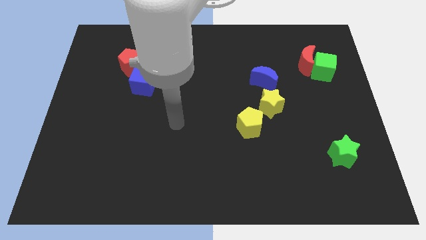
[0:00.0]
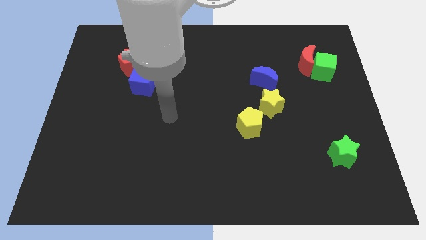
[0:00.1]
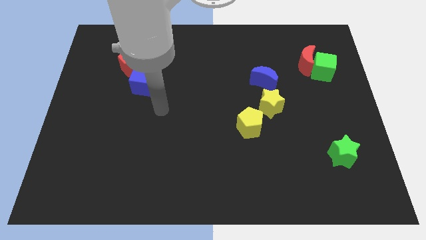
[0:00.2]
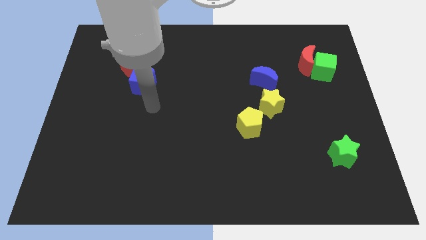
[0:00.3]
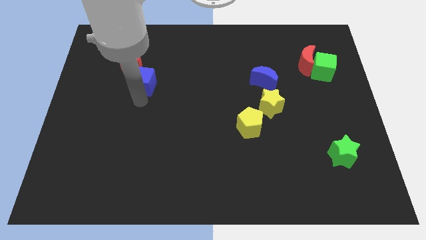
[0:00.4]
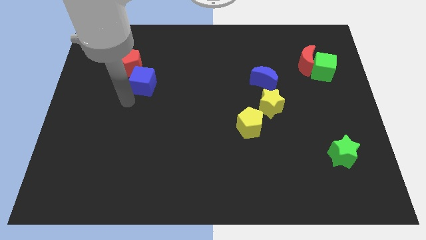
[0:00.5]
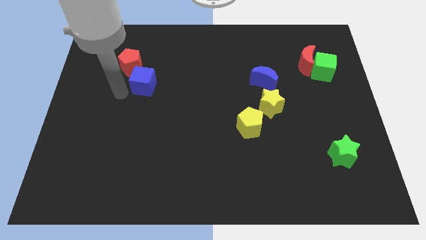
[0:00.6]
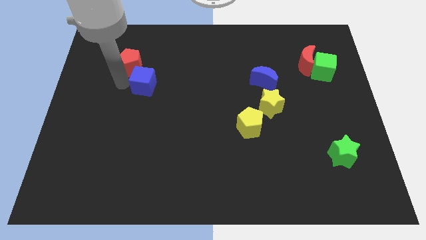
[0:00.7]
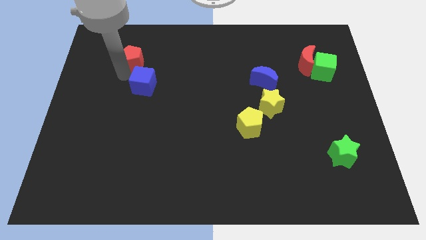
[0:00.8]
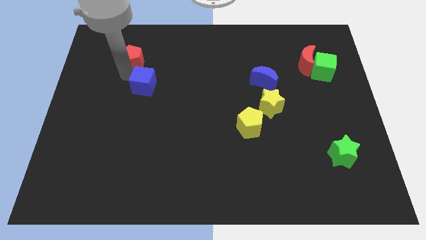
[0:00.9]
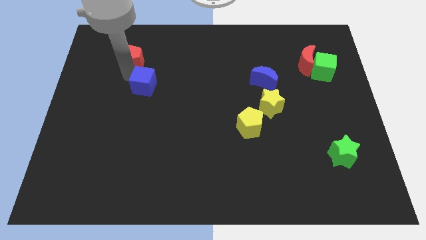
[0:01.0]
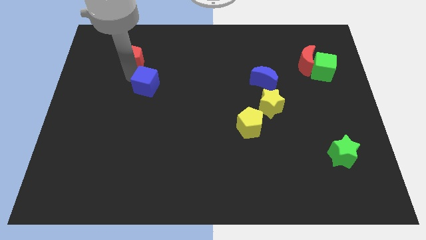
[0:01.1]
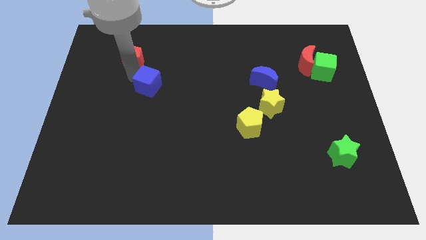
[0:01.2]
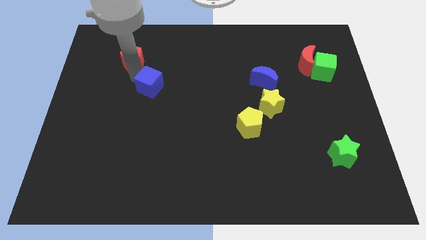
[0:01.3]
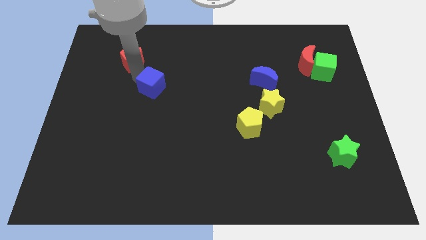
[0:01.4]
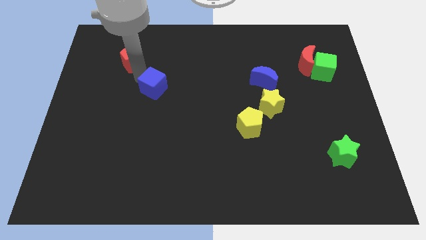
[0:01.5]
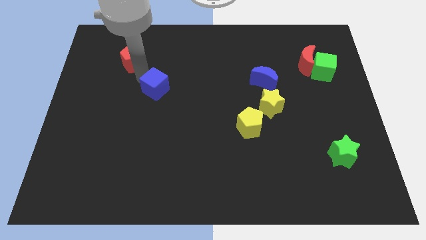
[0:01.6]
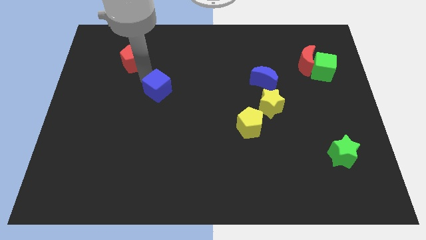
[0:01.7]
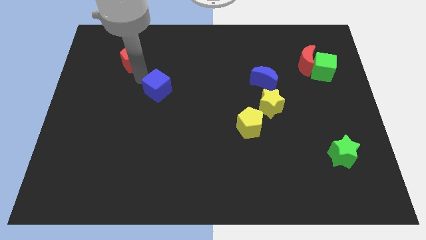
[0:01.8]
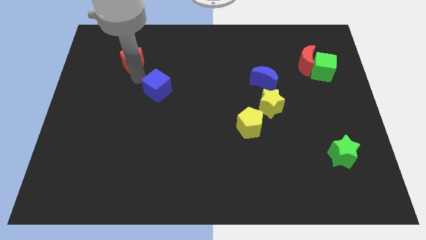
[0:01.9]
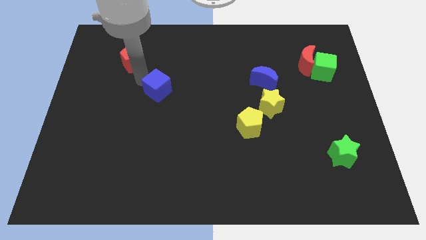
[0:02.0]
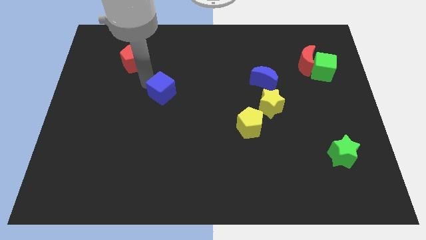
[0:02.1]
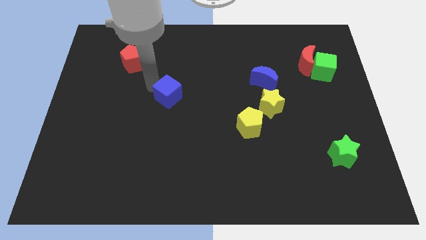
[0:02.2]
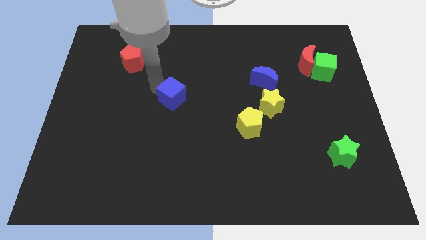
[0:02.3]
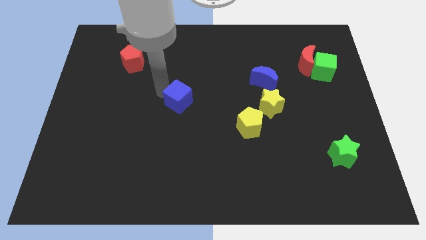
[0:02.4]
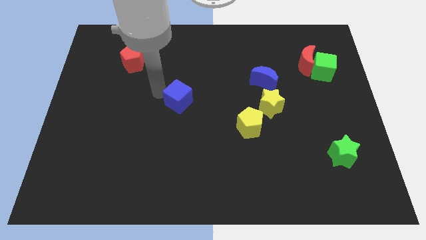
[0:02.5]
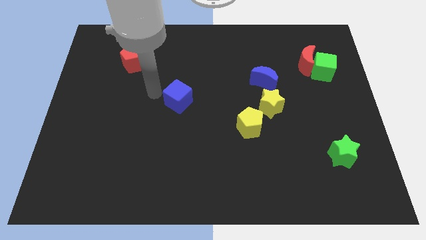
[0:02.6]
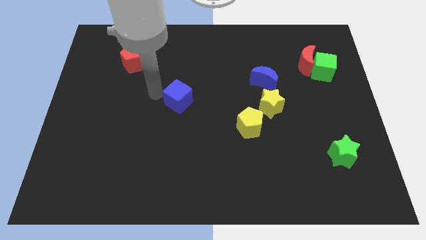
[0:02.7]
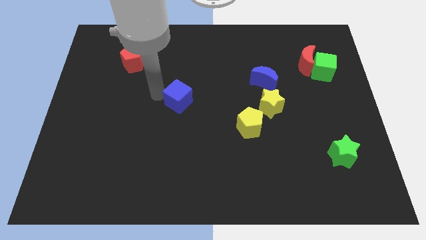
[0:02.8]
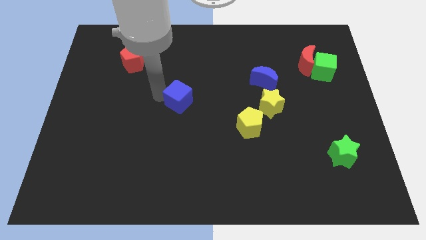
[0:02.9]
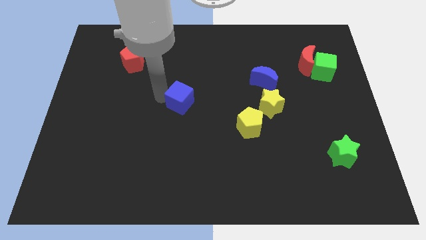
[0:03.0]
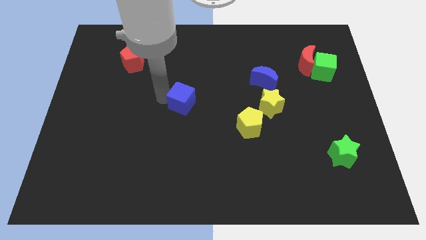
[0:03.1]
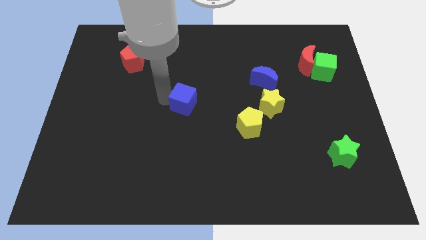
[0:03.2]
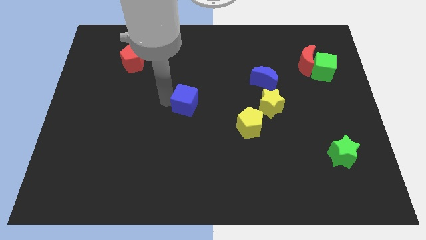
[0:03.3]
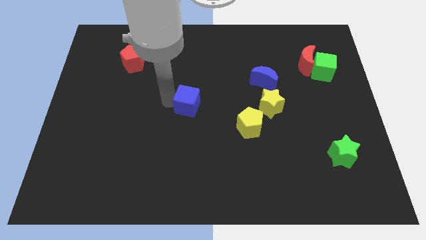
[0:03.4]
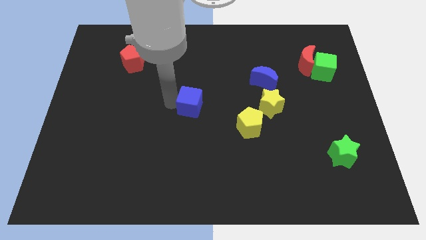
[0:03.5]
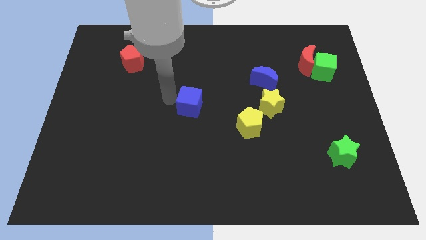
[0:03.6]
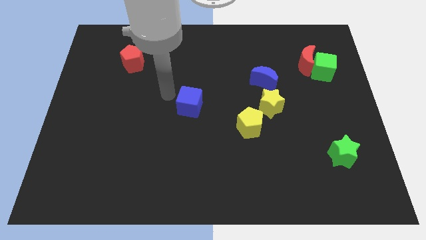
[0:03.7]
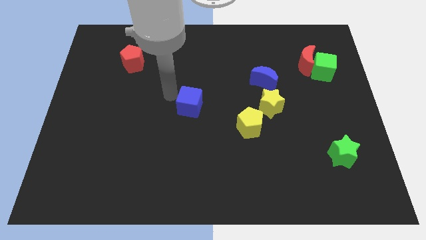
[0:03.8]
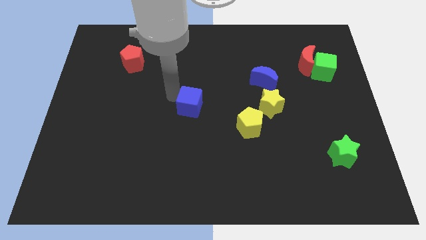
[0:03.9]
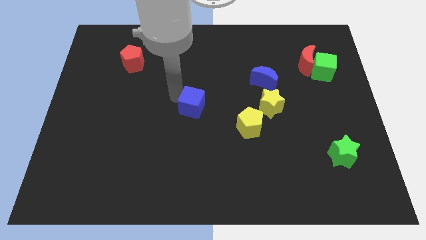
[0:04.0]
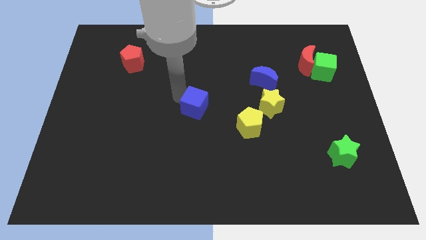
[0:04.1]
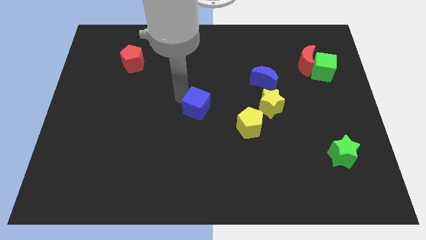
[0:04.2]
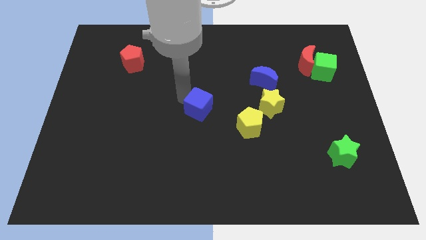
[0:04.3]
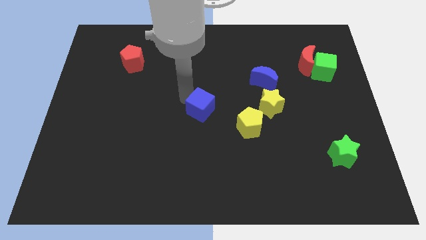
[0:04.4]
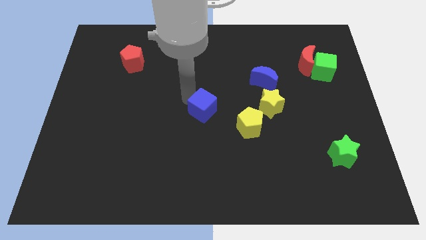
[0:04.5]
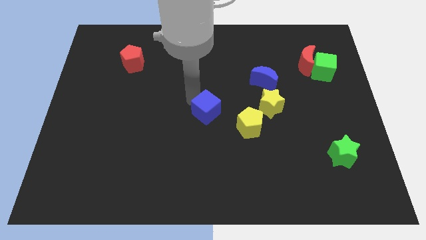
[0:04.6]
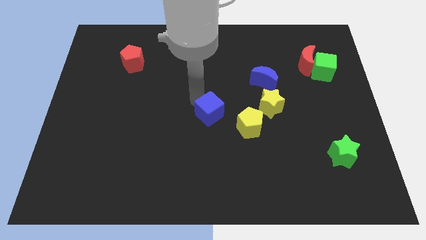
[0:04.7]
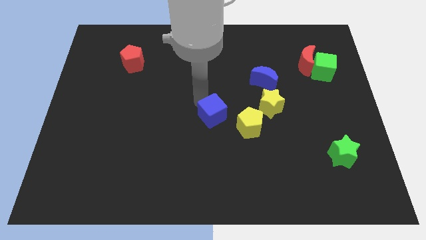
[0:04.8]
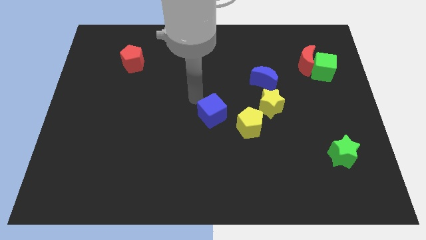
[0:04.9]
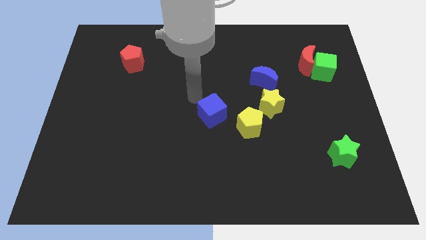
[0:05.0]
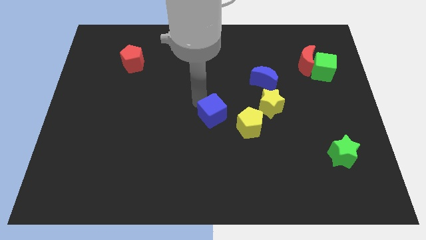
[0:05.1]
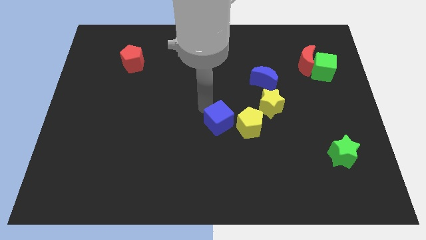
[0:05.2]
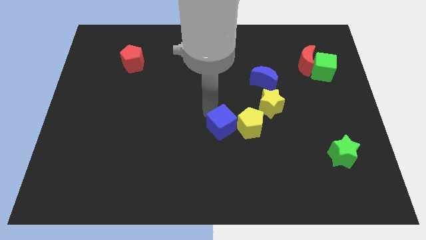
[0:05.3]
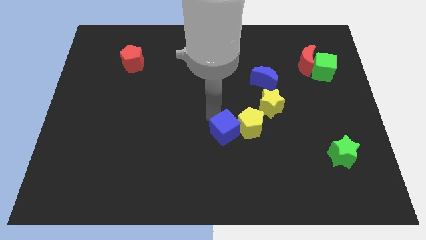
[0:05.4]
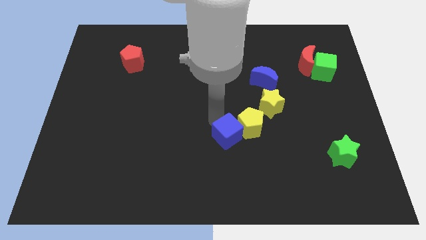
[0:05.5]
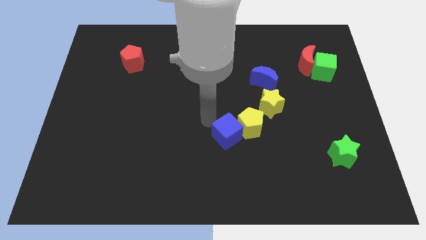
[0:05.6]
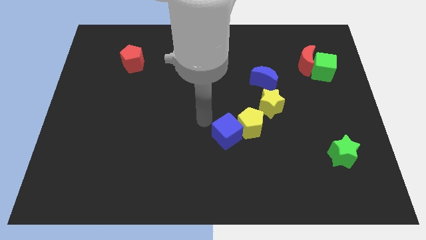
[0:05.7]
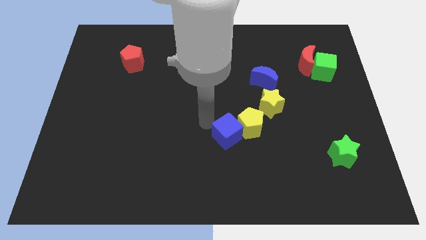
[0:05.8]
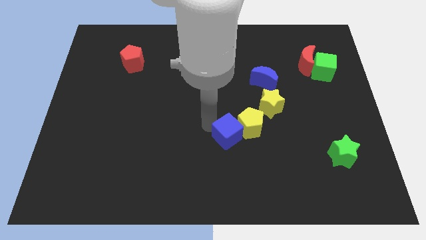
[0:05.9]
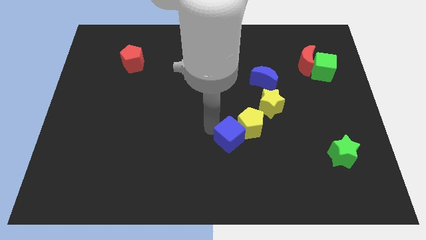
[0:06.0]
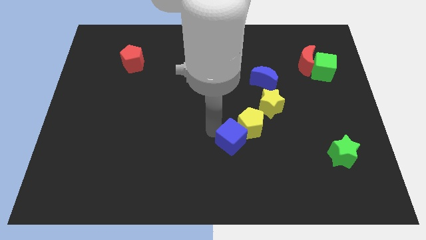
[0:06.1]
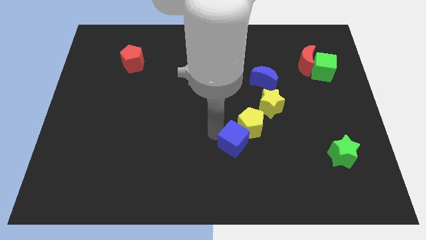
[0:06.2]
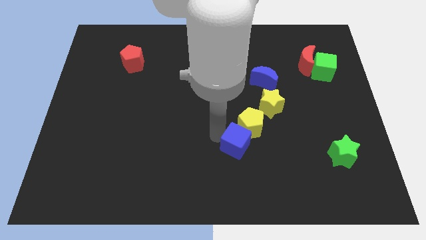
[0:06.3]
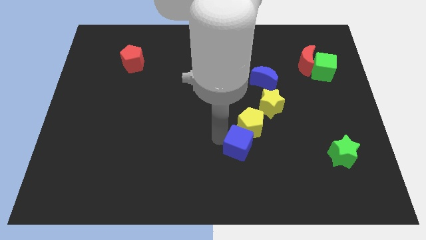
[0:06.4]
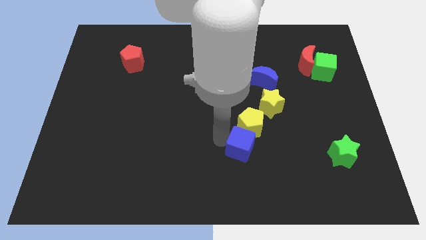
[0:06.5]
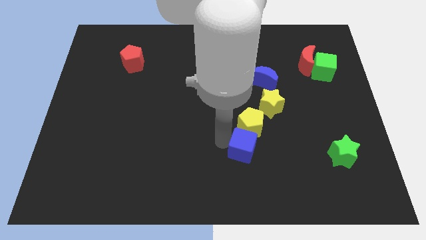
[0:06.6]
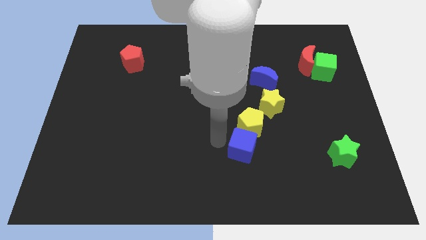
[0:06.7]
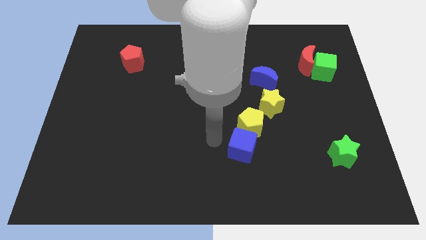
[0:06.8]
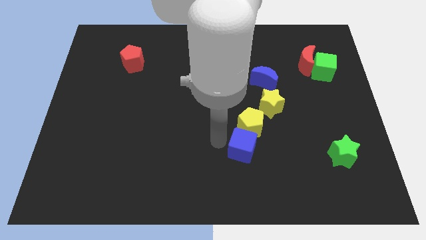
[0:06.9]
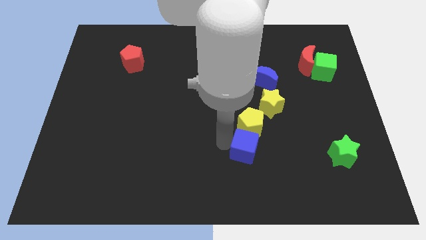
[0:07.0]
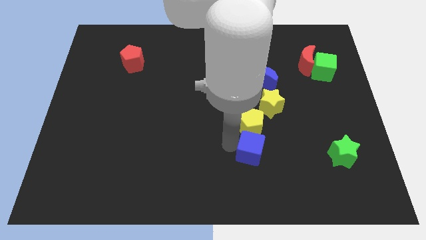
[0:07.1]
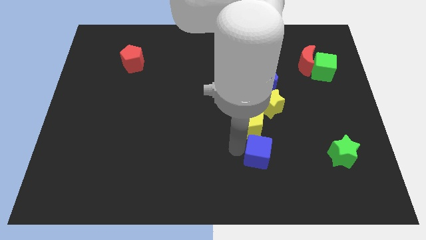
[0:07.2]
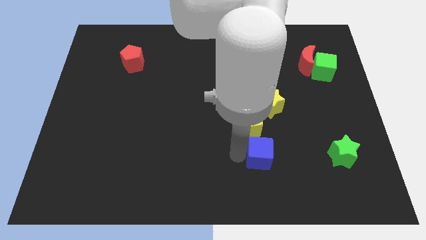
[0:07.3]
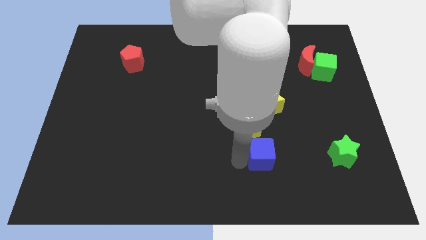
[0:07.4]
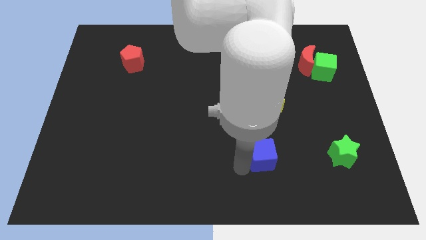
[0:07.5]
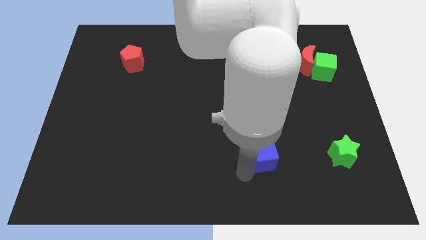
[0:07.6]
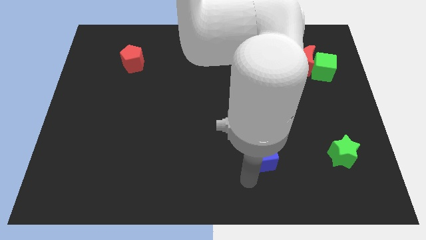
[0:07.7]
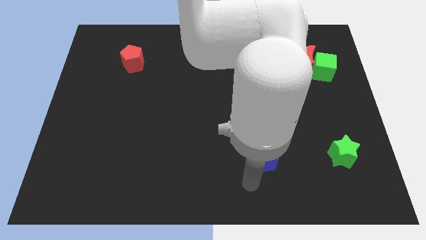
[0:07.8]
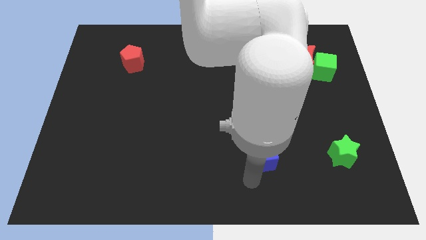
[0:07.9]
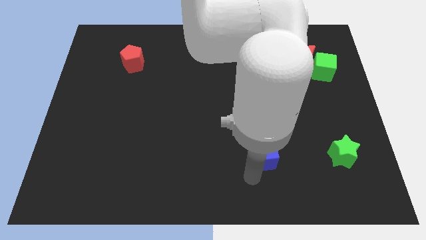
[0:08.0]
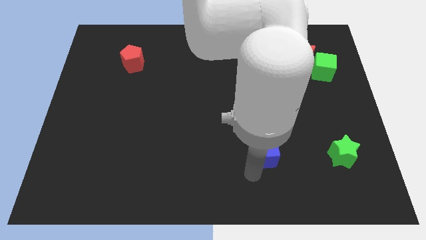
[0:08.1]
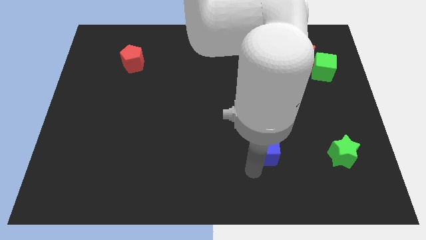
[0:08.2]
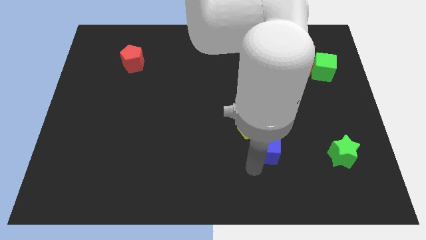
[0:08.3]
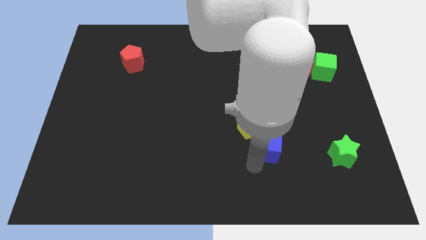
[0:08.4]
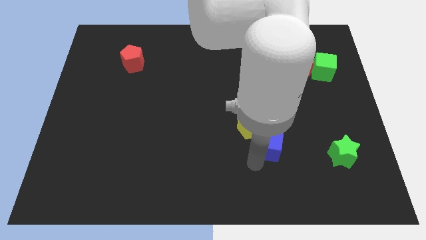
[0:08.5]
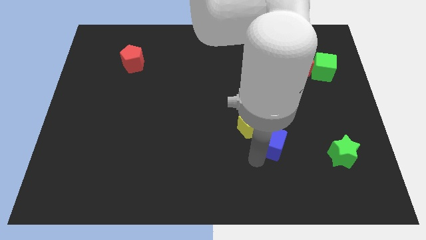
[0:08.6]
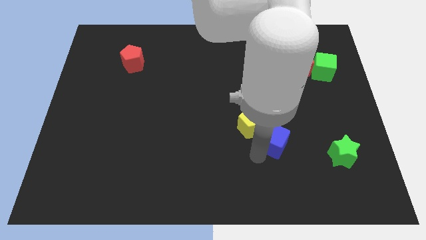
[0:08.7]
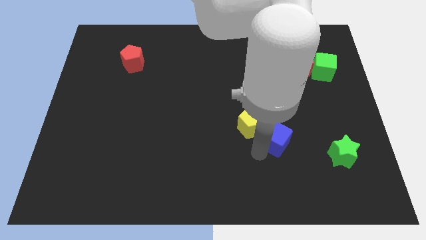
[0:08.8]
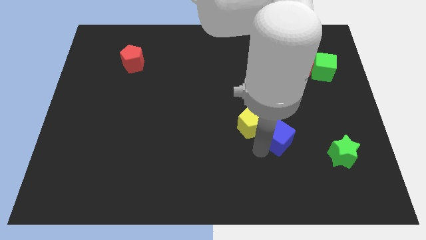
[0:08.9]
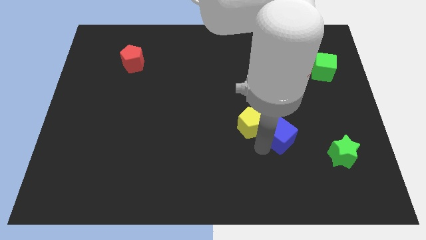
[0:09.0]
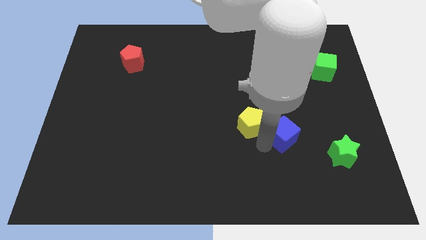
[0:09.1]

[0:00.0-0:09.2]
move the blue cube diagonally down and to the right of the yellow star
